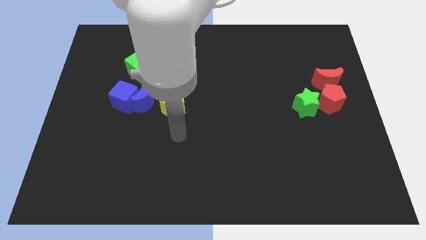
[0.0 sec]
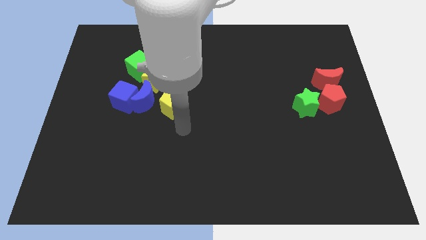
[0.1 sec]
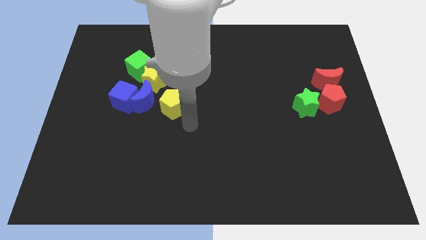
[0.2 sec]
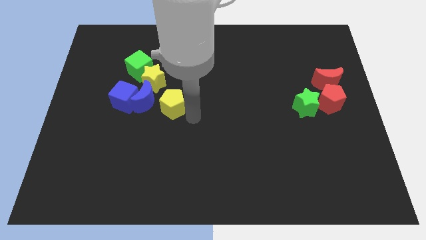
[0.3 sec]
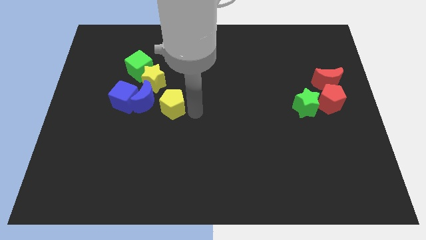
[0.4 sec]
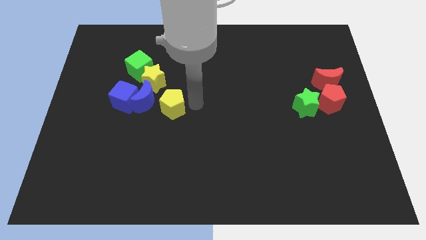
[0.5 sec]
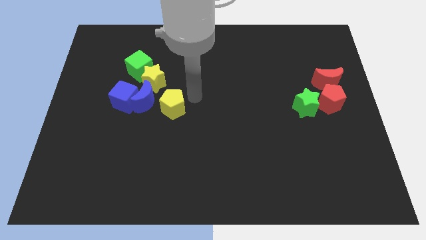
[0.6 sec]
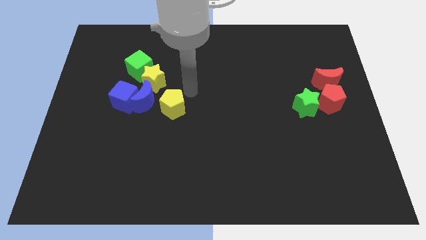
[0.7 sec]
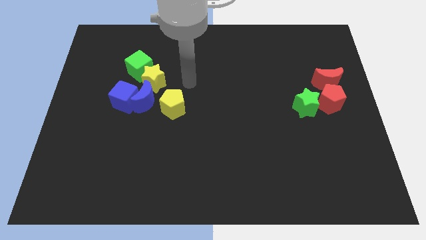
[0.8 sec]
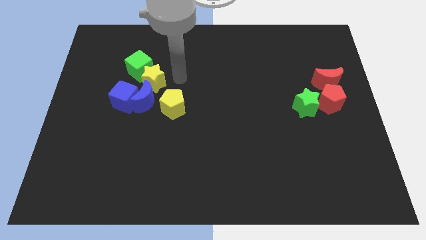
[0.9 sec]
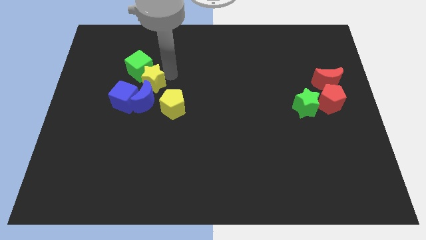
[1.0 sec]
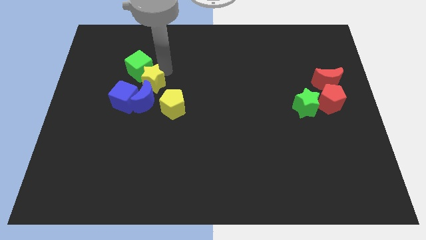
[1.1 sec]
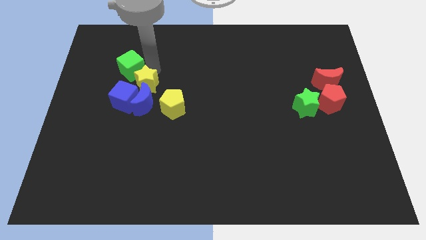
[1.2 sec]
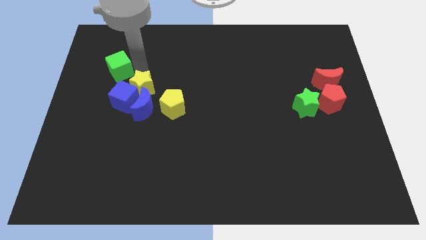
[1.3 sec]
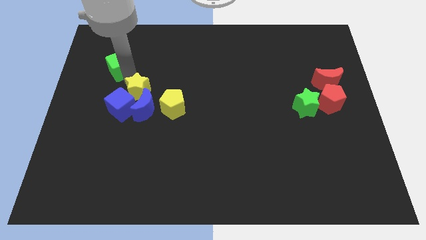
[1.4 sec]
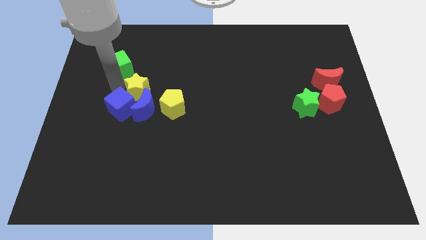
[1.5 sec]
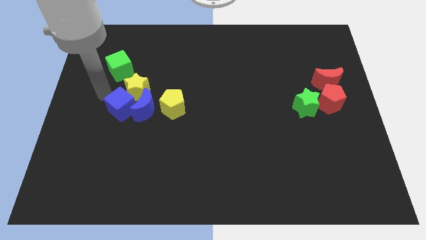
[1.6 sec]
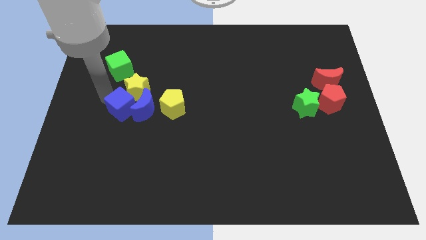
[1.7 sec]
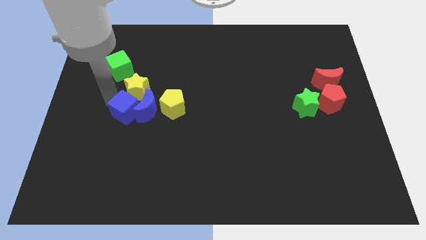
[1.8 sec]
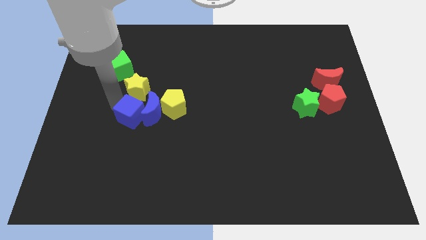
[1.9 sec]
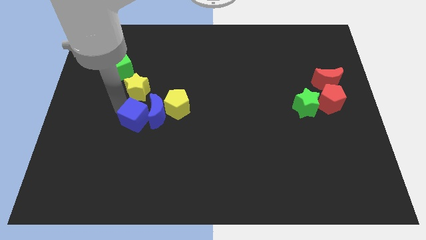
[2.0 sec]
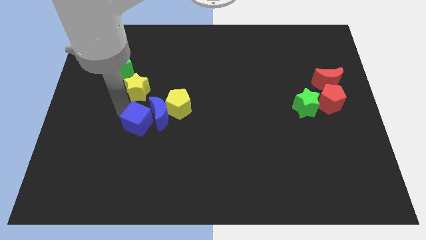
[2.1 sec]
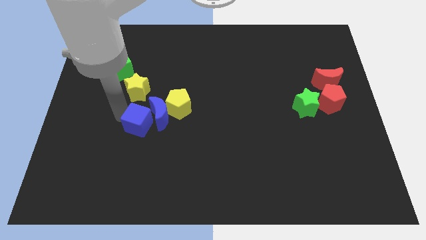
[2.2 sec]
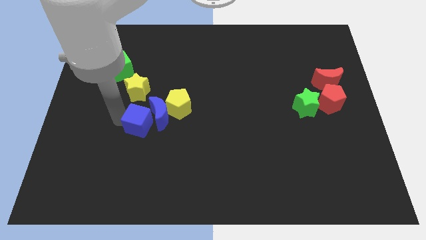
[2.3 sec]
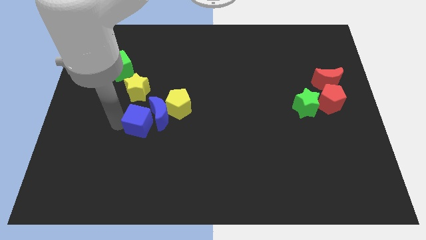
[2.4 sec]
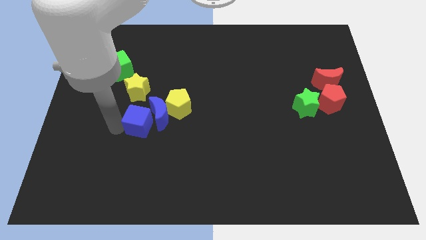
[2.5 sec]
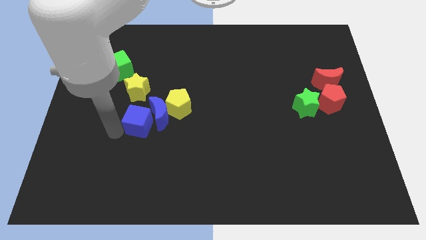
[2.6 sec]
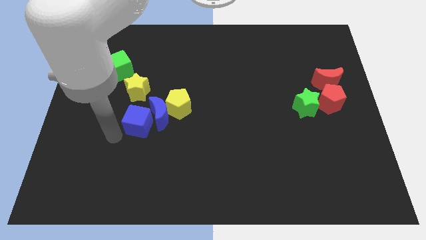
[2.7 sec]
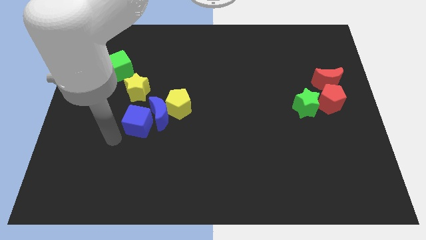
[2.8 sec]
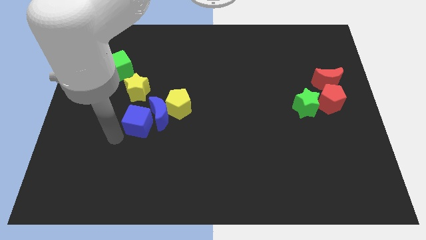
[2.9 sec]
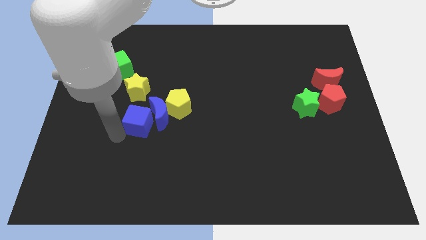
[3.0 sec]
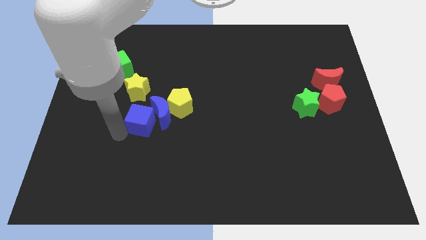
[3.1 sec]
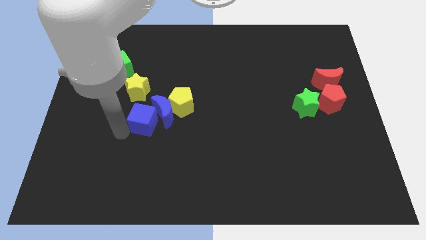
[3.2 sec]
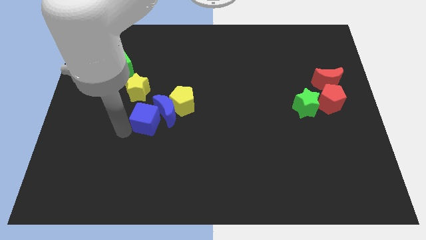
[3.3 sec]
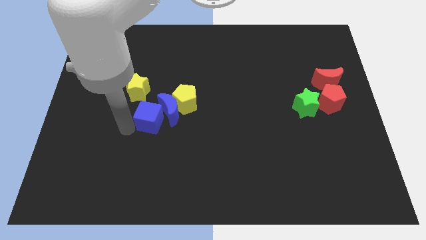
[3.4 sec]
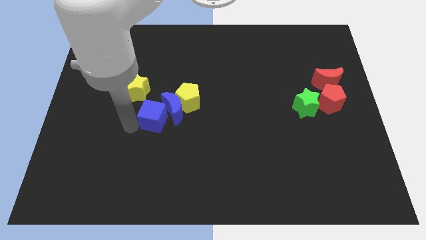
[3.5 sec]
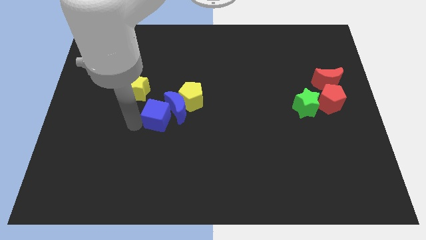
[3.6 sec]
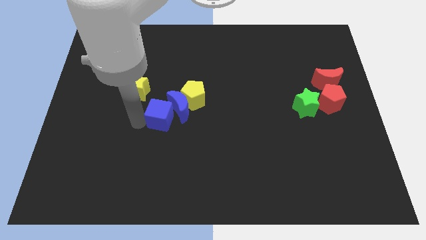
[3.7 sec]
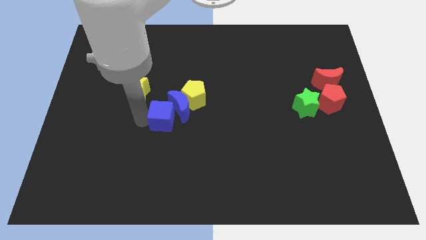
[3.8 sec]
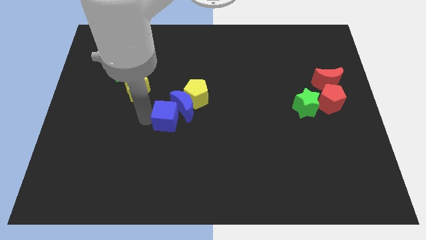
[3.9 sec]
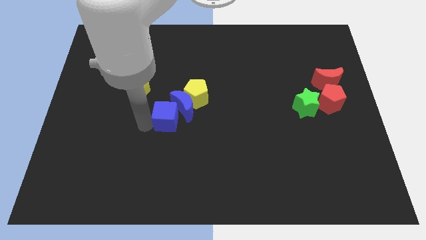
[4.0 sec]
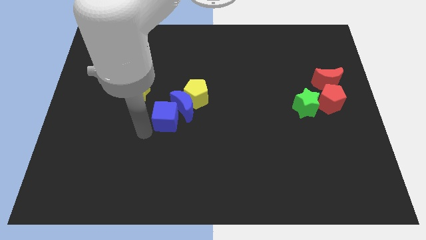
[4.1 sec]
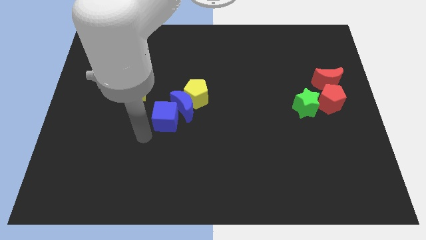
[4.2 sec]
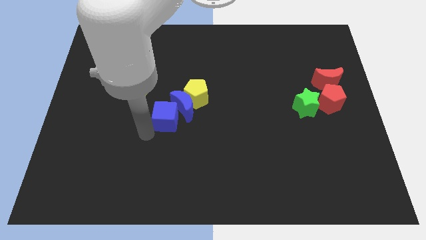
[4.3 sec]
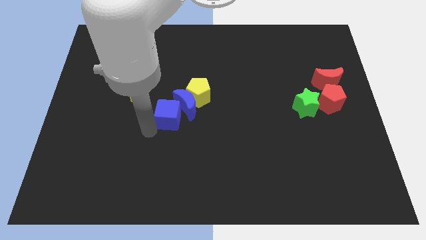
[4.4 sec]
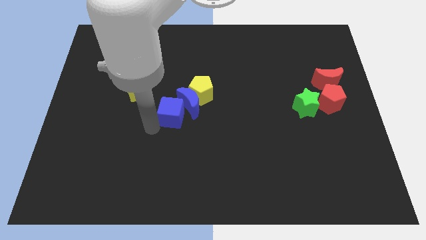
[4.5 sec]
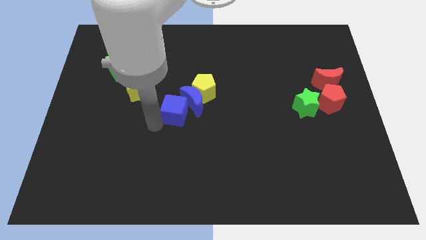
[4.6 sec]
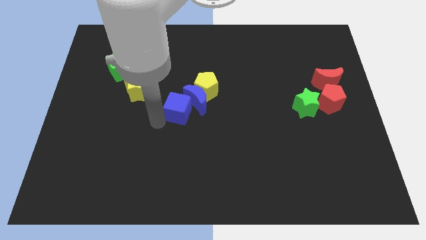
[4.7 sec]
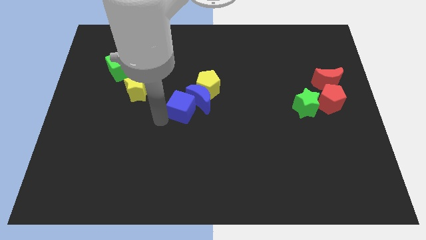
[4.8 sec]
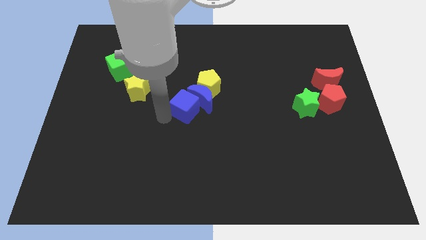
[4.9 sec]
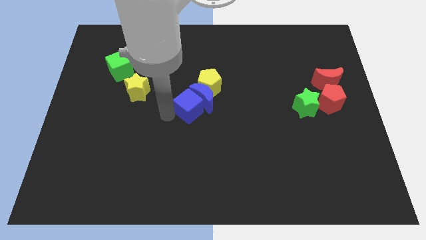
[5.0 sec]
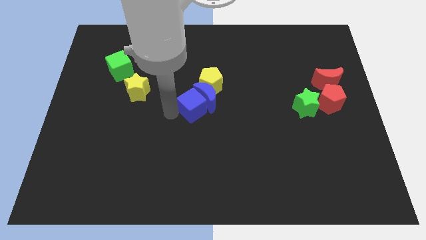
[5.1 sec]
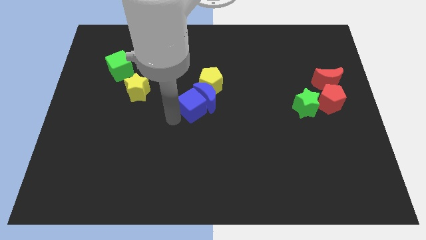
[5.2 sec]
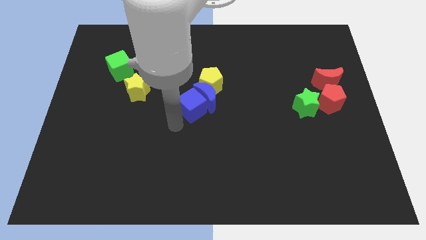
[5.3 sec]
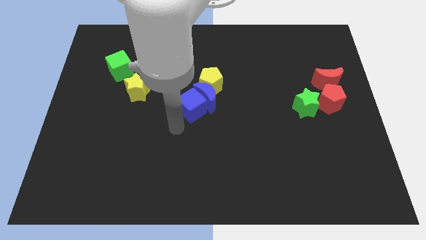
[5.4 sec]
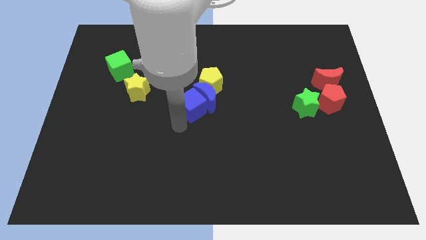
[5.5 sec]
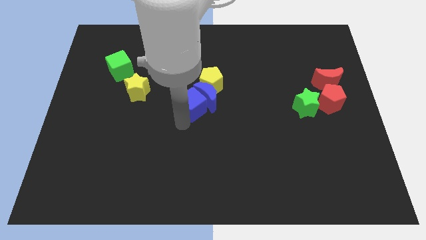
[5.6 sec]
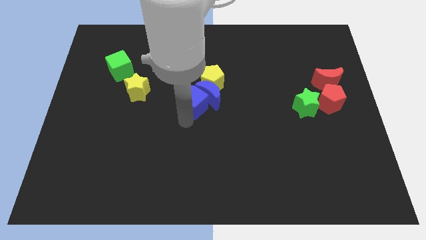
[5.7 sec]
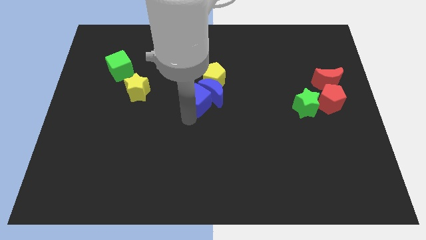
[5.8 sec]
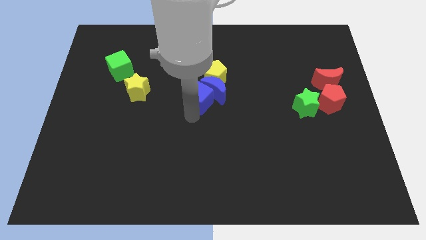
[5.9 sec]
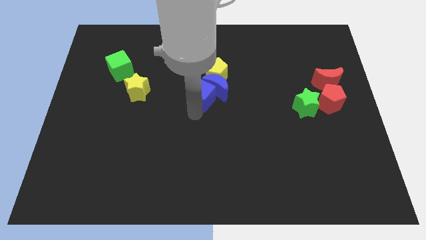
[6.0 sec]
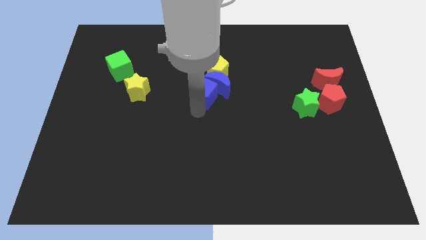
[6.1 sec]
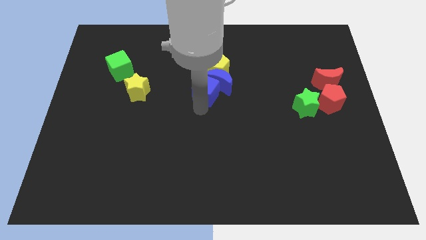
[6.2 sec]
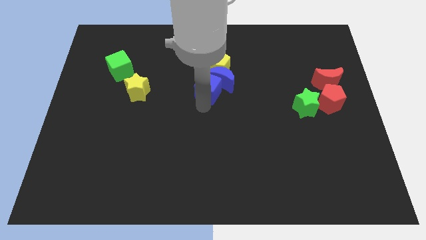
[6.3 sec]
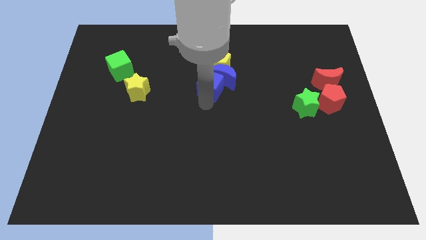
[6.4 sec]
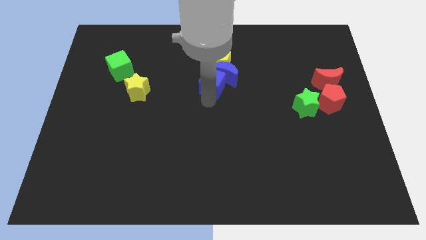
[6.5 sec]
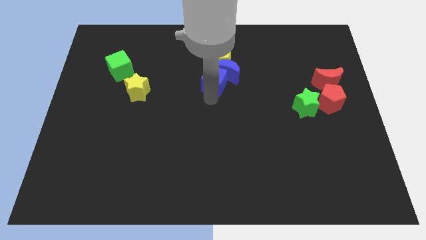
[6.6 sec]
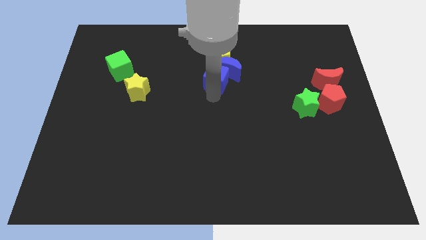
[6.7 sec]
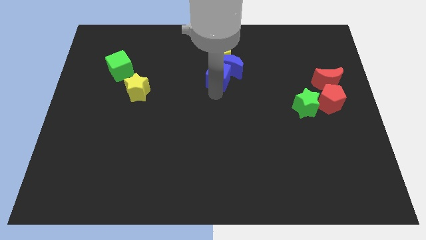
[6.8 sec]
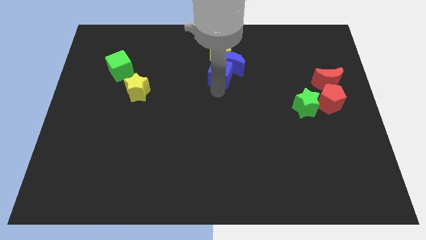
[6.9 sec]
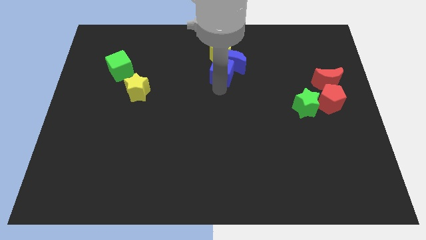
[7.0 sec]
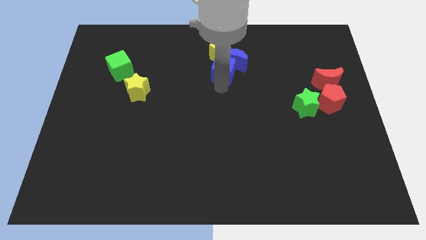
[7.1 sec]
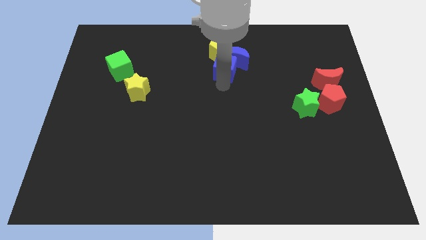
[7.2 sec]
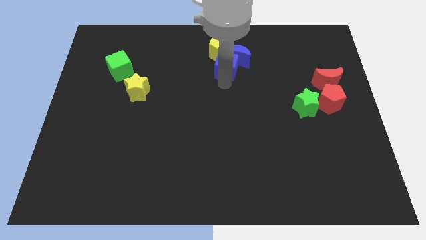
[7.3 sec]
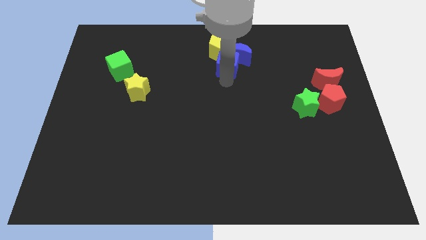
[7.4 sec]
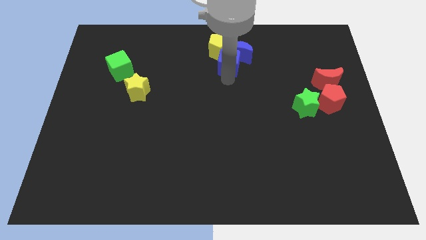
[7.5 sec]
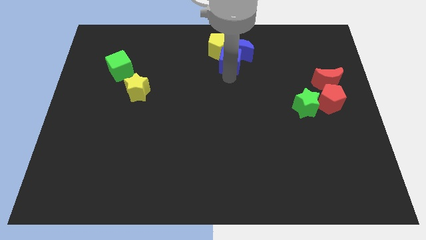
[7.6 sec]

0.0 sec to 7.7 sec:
push the blue cube to the yellow pentagon
